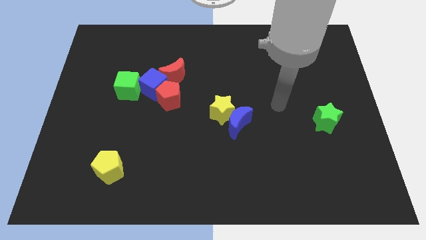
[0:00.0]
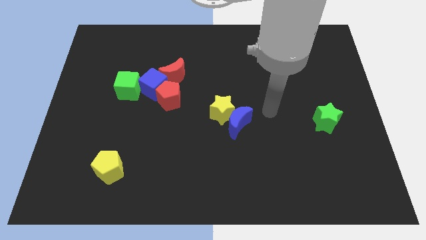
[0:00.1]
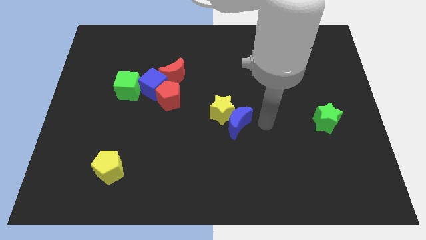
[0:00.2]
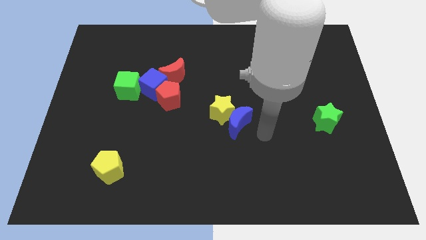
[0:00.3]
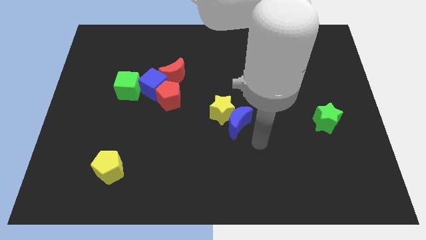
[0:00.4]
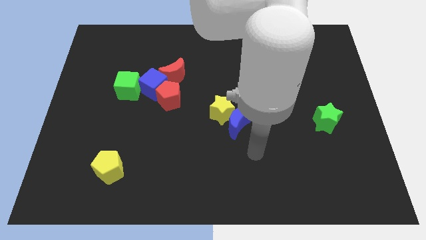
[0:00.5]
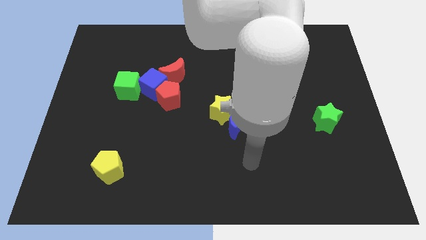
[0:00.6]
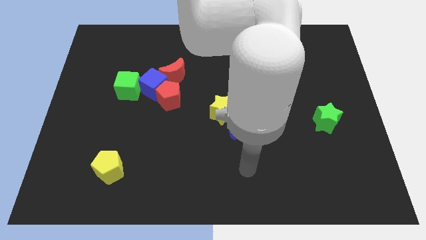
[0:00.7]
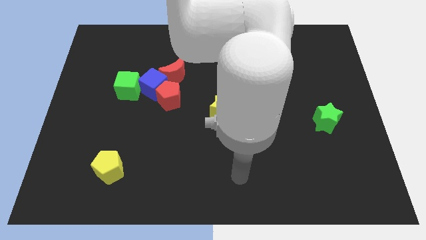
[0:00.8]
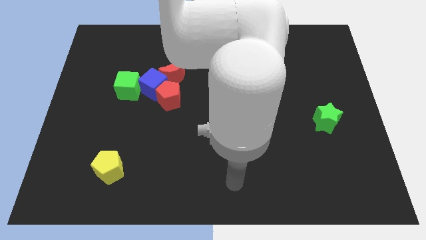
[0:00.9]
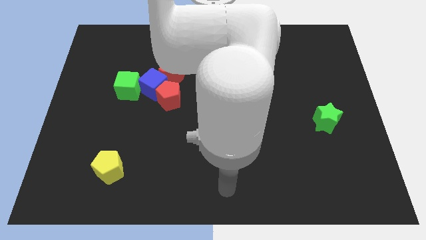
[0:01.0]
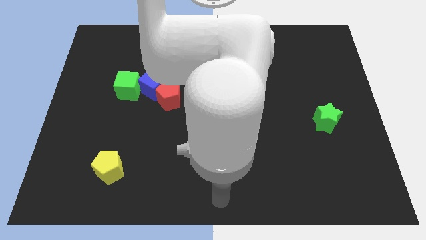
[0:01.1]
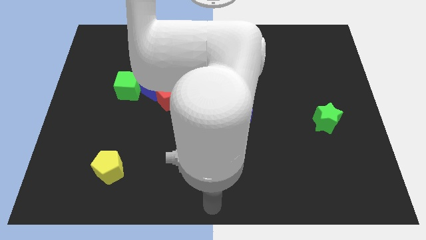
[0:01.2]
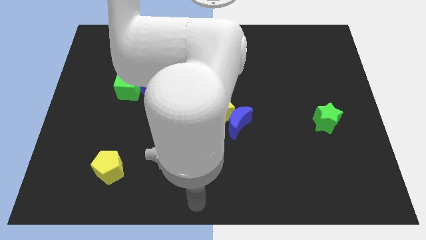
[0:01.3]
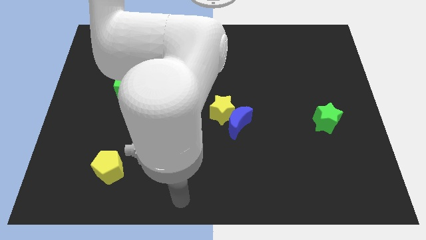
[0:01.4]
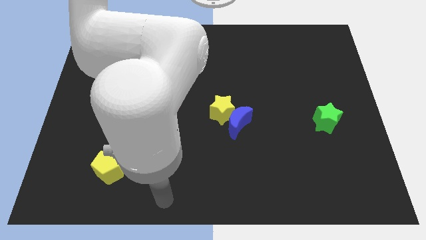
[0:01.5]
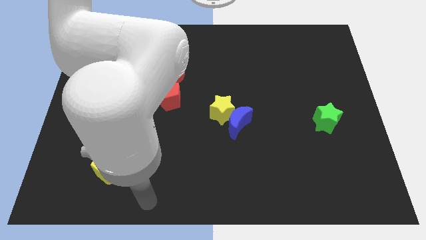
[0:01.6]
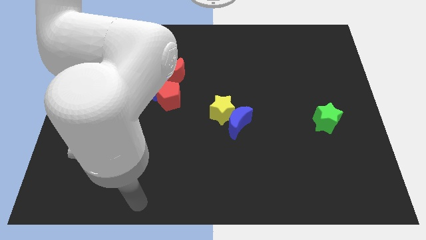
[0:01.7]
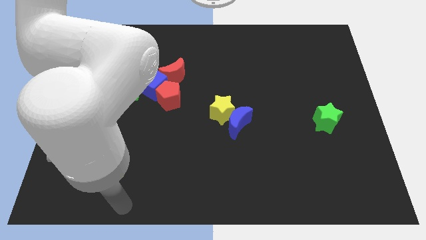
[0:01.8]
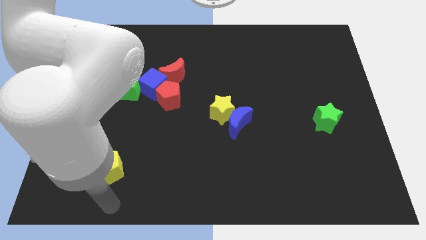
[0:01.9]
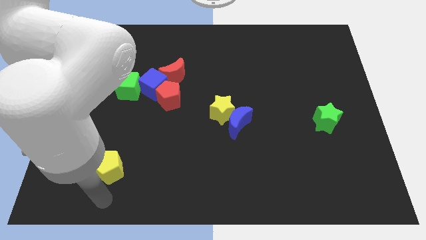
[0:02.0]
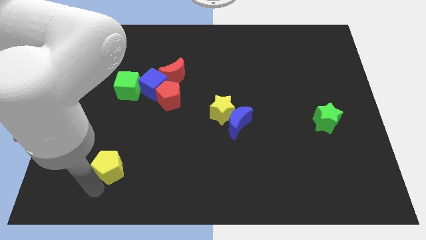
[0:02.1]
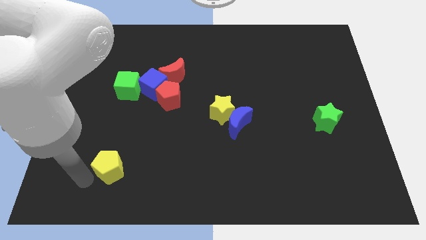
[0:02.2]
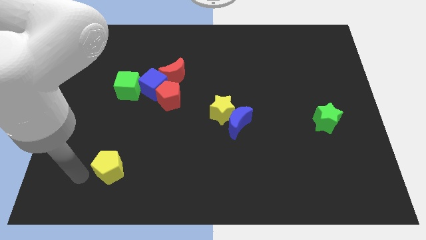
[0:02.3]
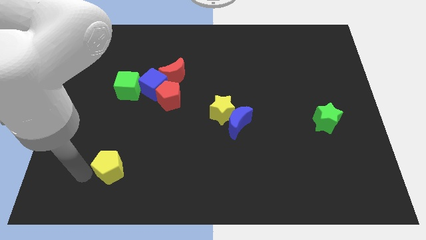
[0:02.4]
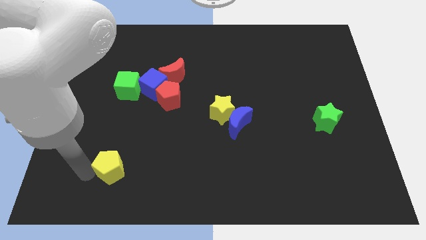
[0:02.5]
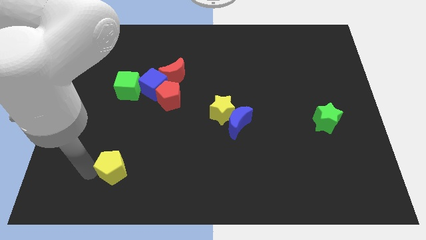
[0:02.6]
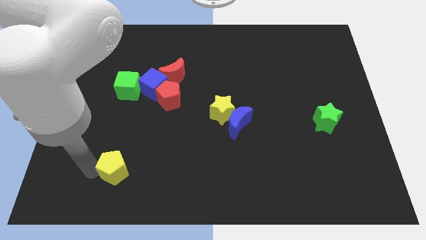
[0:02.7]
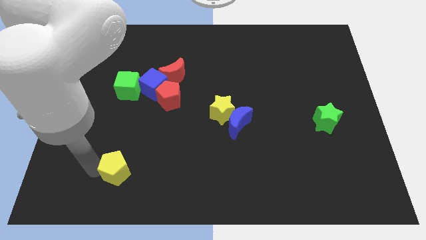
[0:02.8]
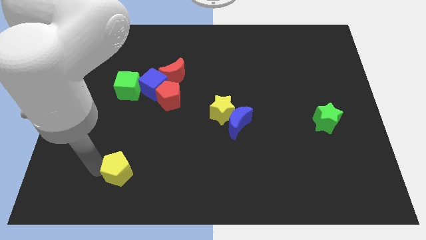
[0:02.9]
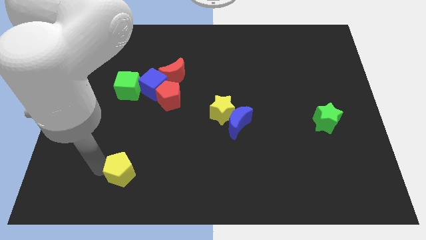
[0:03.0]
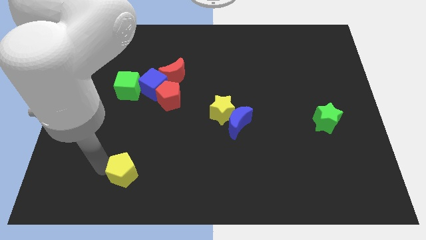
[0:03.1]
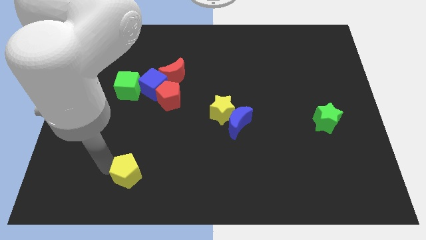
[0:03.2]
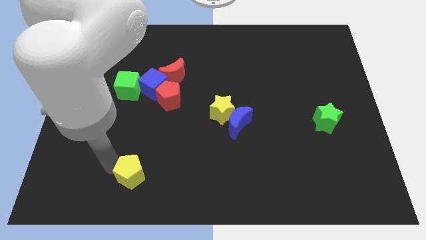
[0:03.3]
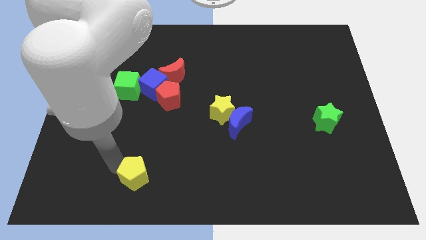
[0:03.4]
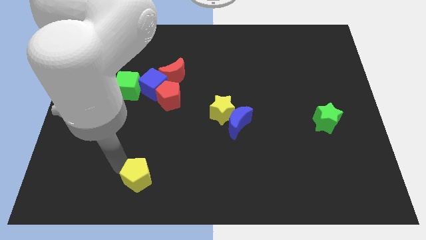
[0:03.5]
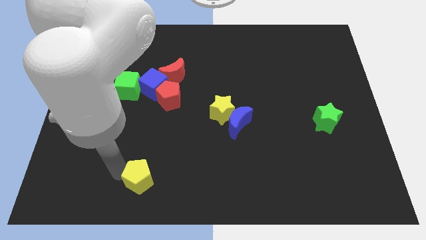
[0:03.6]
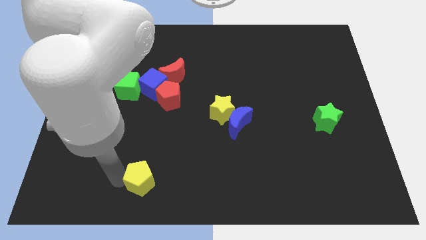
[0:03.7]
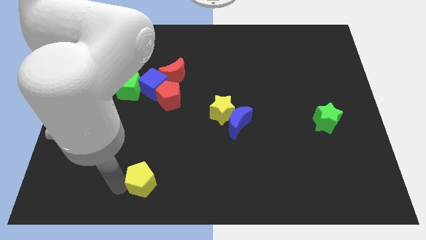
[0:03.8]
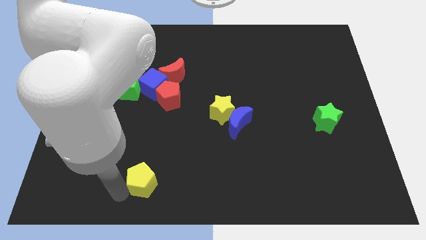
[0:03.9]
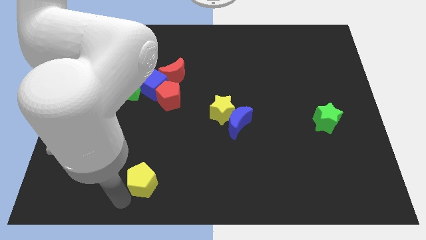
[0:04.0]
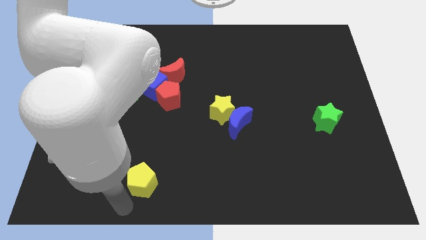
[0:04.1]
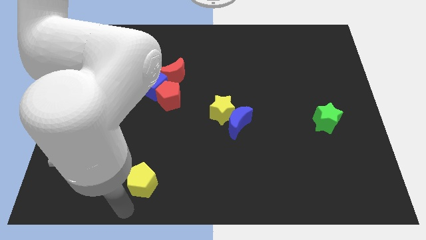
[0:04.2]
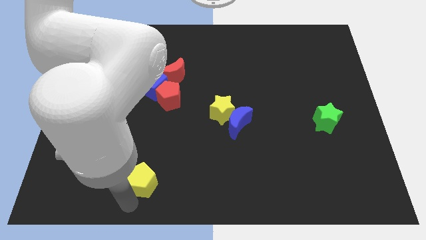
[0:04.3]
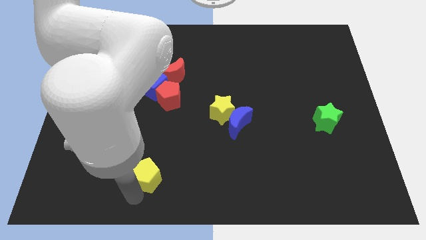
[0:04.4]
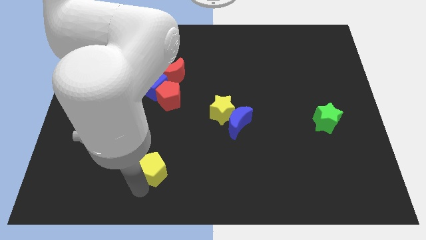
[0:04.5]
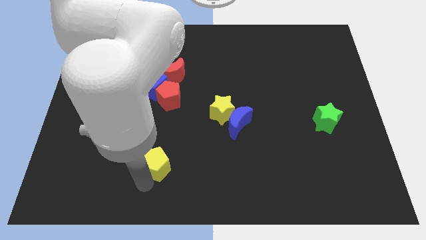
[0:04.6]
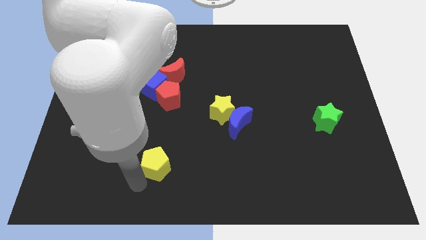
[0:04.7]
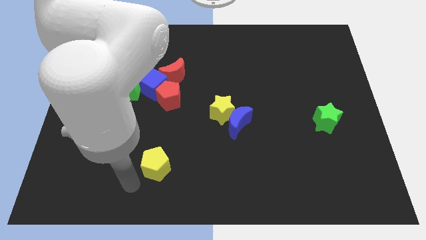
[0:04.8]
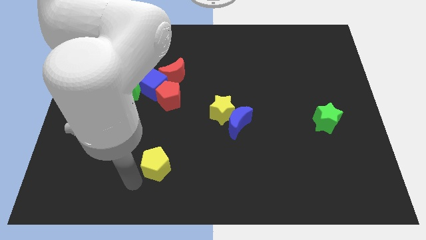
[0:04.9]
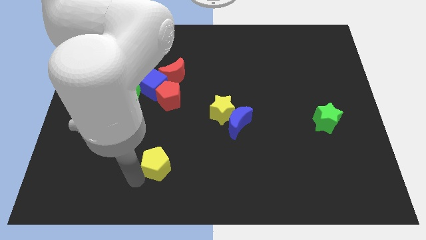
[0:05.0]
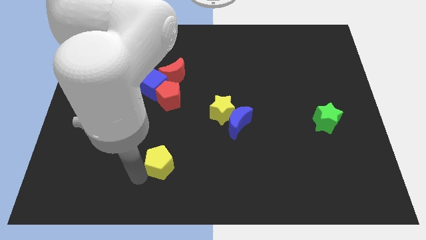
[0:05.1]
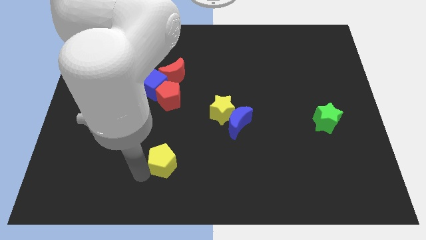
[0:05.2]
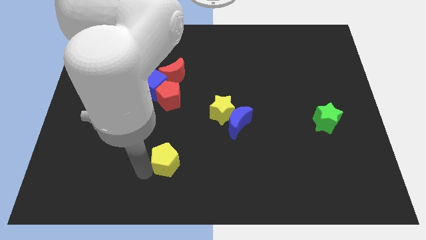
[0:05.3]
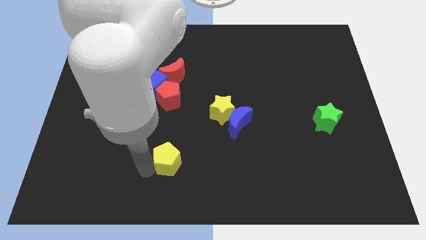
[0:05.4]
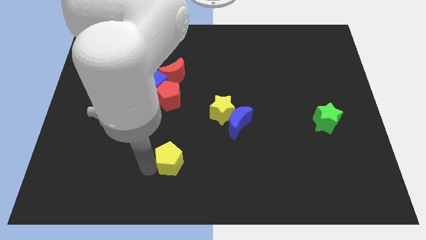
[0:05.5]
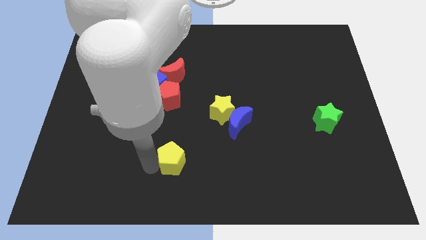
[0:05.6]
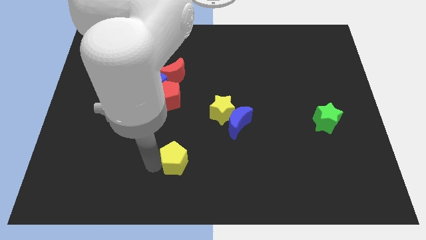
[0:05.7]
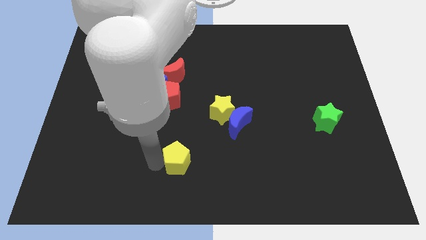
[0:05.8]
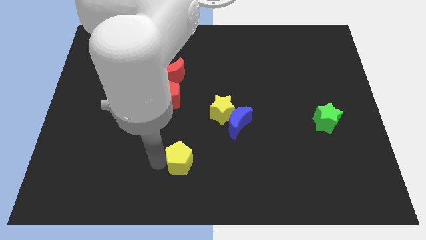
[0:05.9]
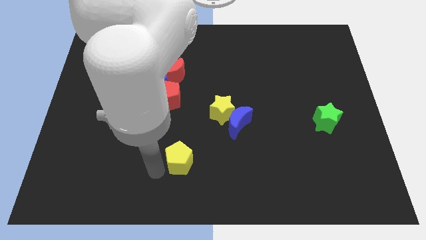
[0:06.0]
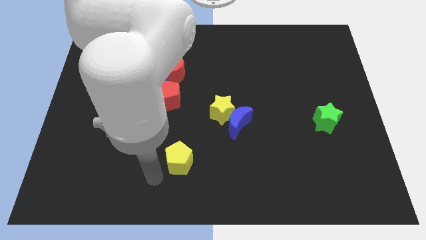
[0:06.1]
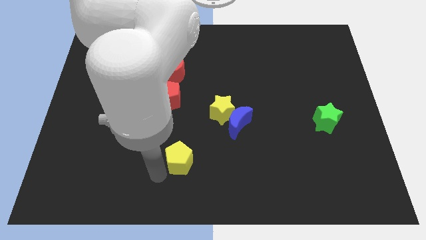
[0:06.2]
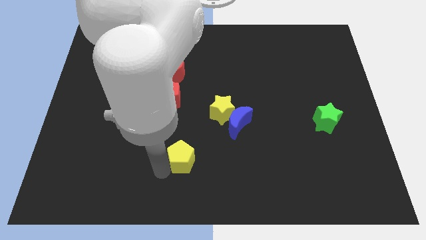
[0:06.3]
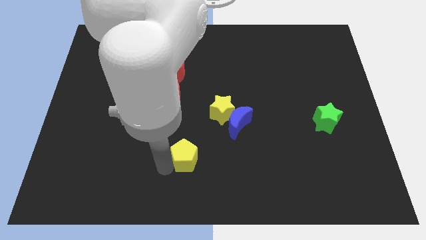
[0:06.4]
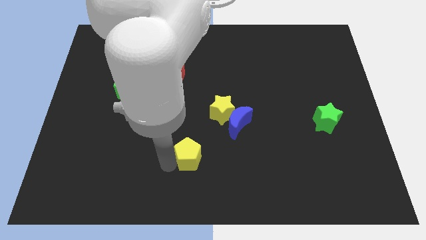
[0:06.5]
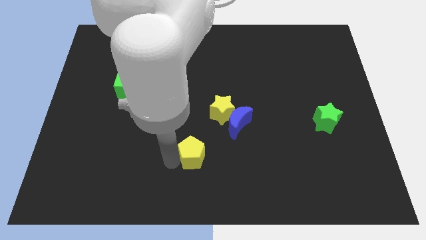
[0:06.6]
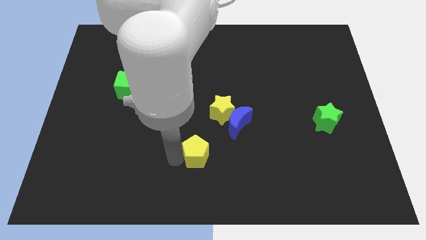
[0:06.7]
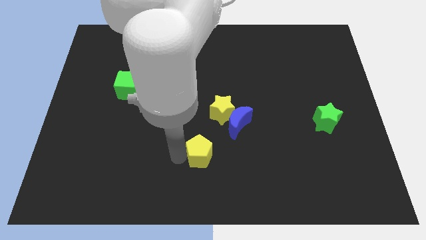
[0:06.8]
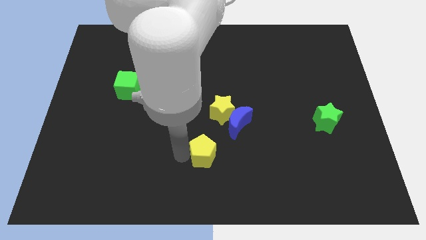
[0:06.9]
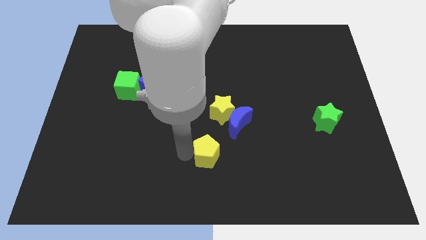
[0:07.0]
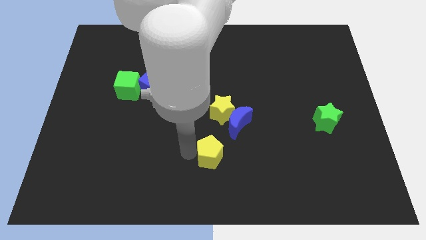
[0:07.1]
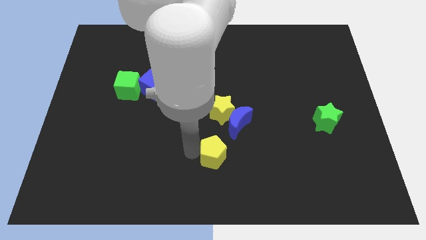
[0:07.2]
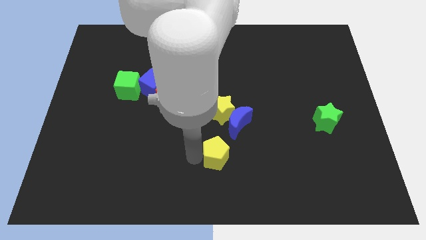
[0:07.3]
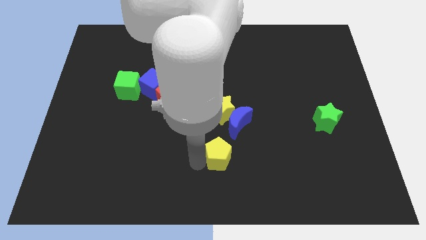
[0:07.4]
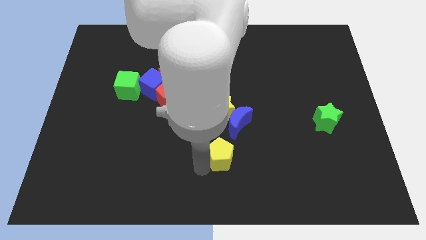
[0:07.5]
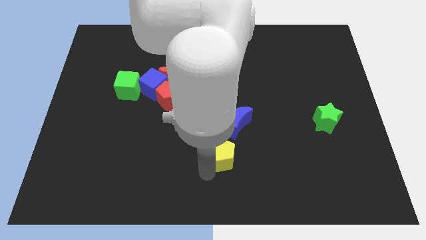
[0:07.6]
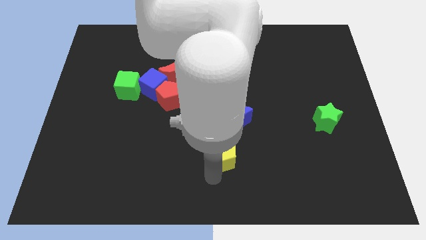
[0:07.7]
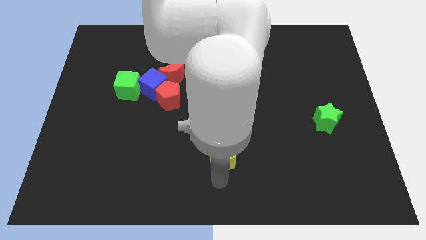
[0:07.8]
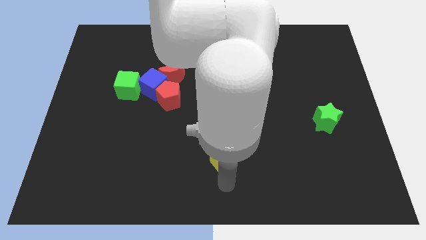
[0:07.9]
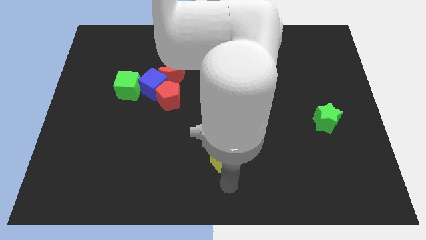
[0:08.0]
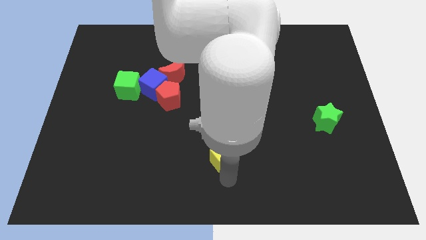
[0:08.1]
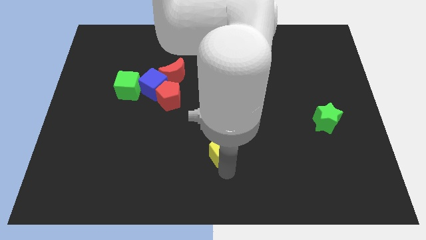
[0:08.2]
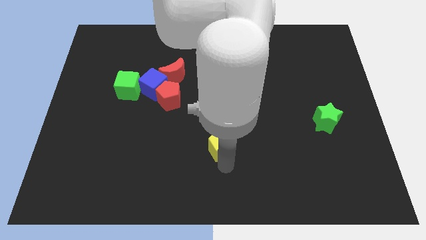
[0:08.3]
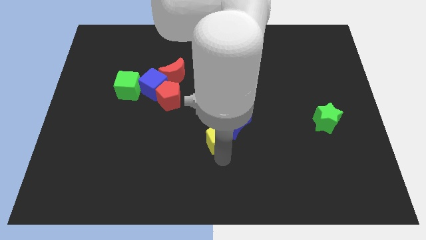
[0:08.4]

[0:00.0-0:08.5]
put the yellow pentagon towards the blue moon
